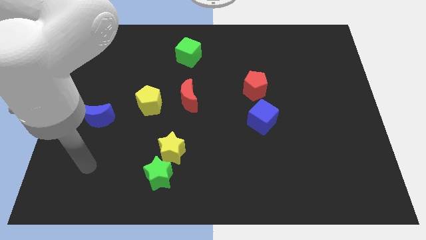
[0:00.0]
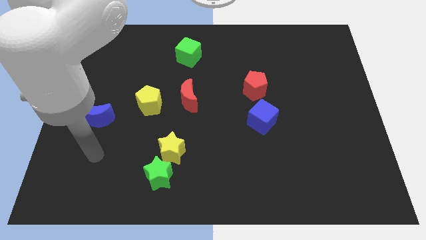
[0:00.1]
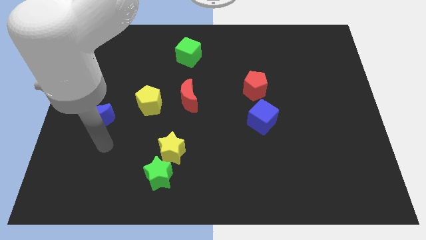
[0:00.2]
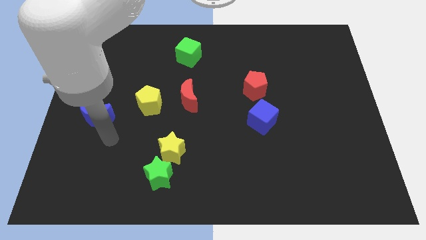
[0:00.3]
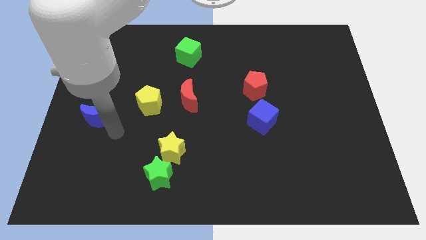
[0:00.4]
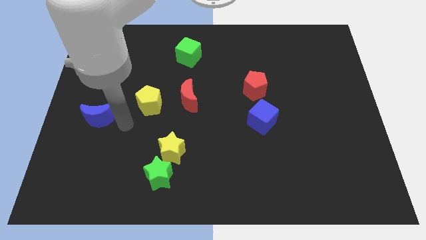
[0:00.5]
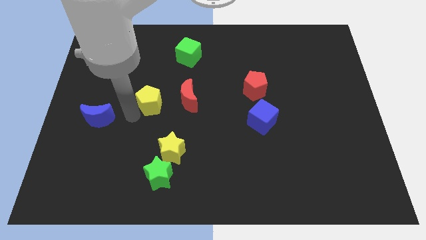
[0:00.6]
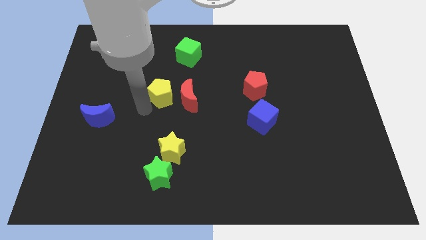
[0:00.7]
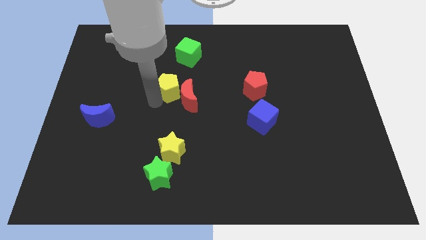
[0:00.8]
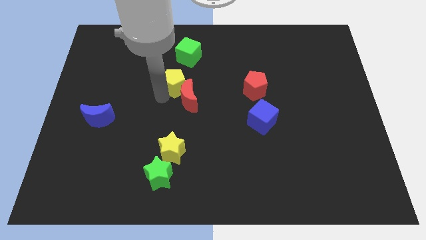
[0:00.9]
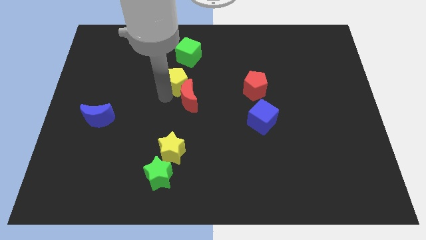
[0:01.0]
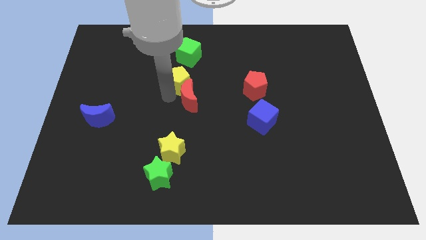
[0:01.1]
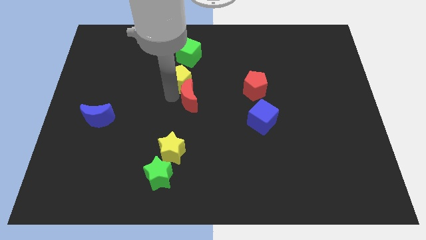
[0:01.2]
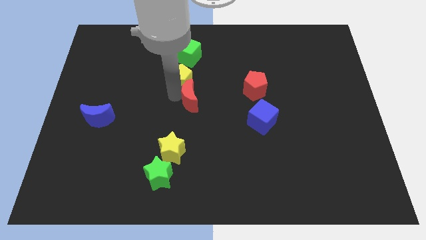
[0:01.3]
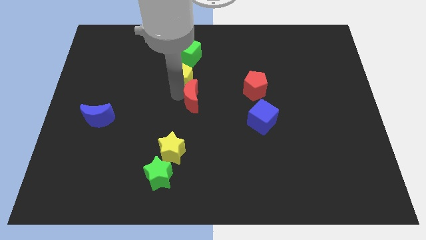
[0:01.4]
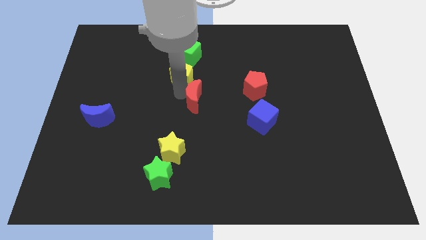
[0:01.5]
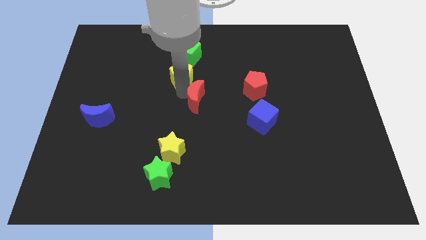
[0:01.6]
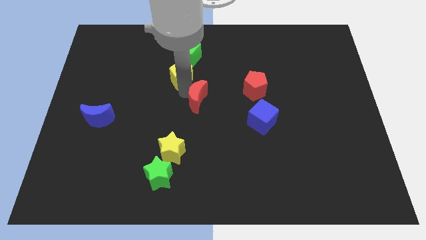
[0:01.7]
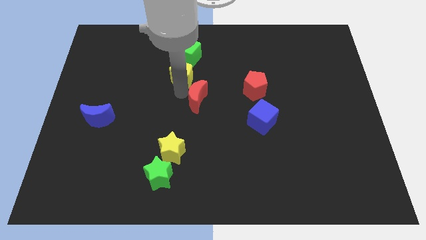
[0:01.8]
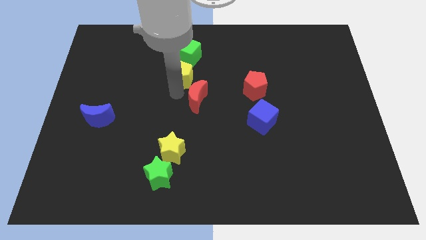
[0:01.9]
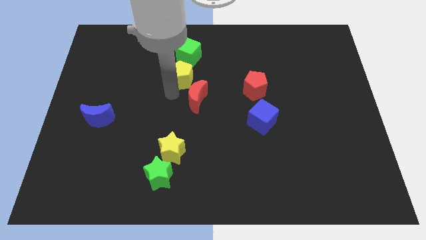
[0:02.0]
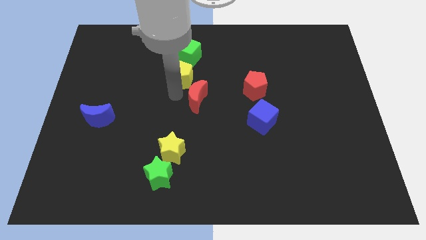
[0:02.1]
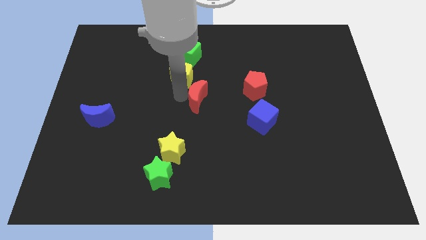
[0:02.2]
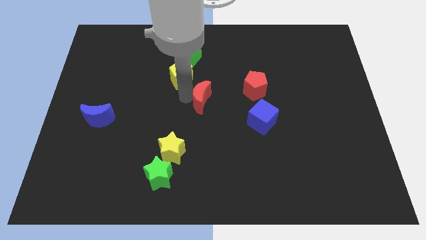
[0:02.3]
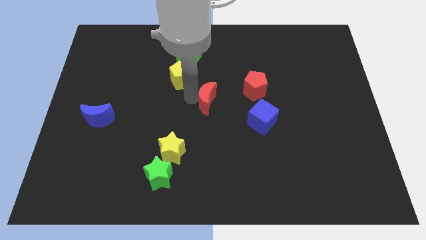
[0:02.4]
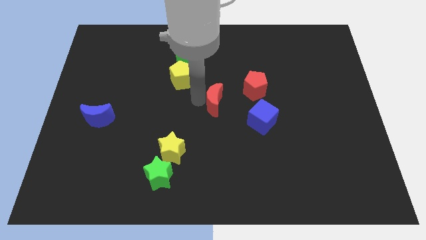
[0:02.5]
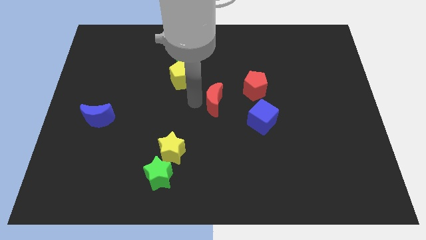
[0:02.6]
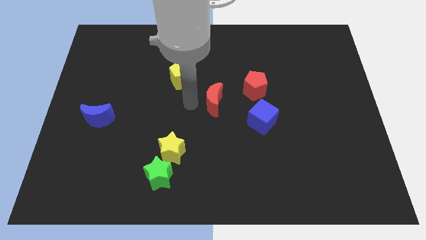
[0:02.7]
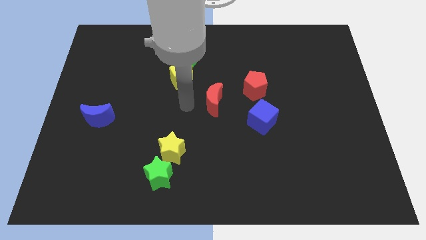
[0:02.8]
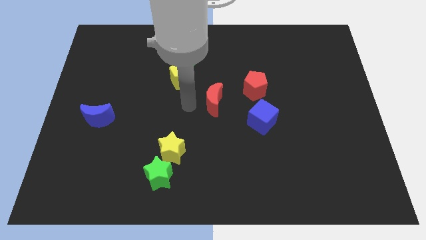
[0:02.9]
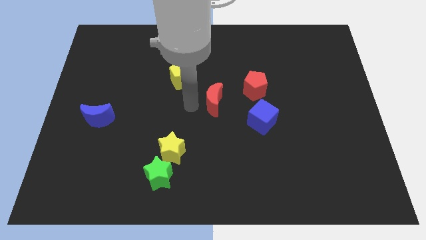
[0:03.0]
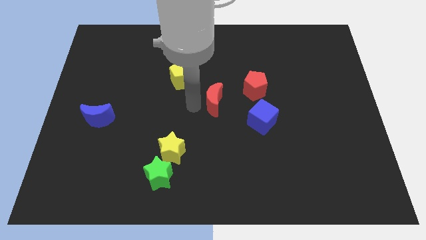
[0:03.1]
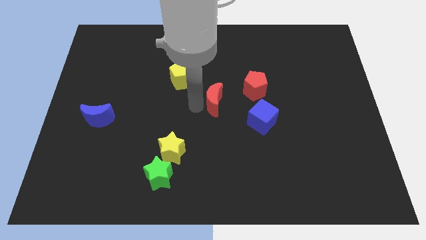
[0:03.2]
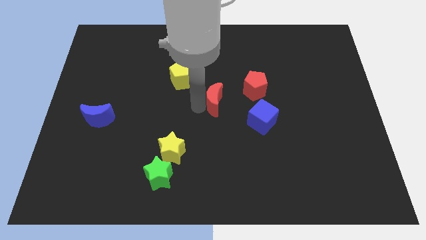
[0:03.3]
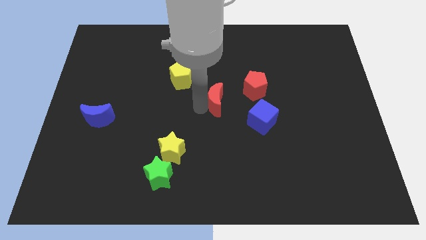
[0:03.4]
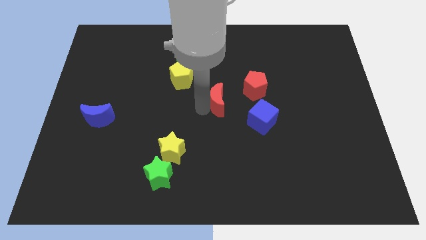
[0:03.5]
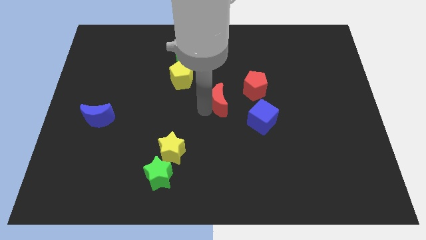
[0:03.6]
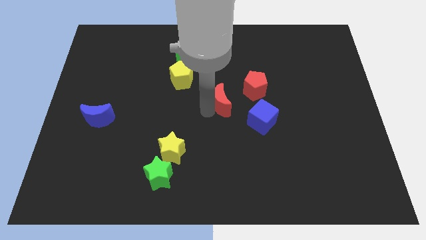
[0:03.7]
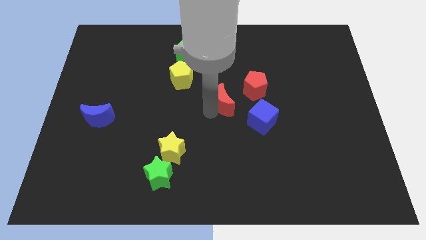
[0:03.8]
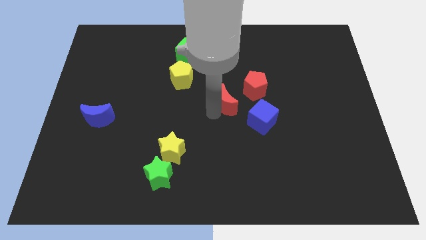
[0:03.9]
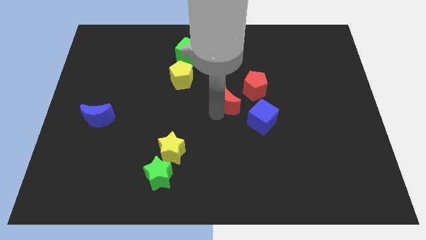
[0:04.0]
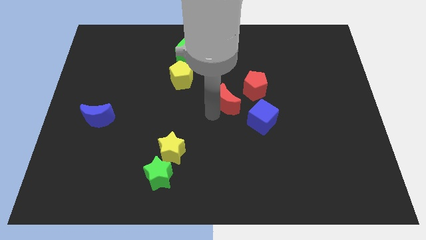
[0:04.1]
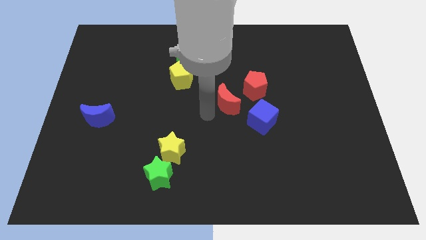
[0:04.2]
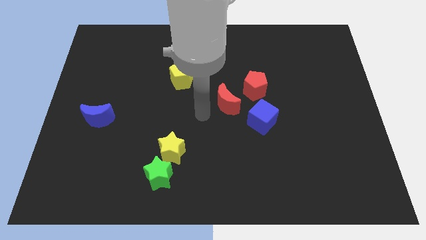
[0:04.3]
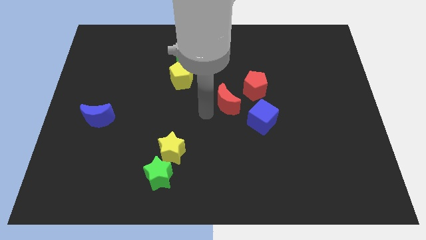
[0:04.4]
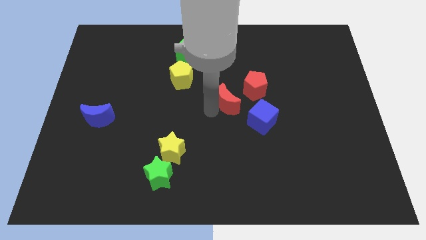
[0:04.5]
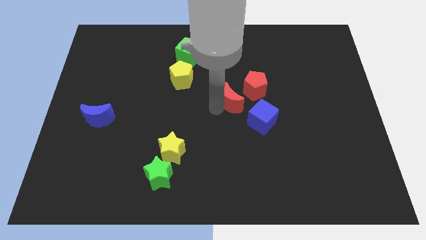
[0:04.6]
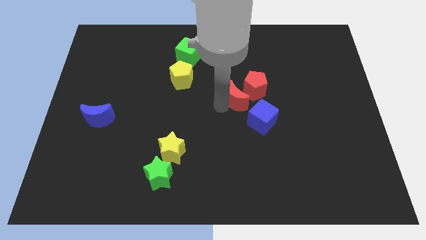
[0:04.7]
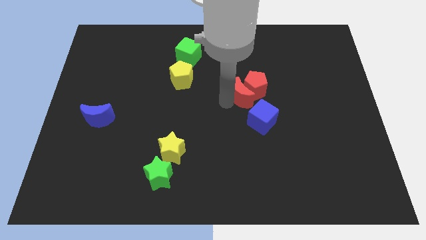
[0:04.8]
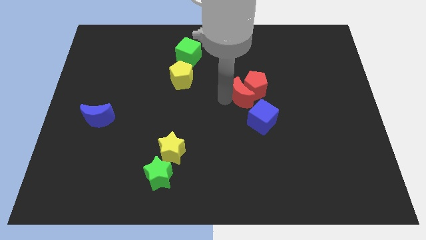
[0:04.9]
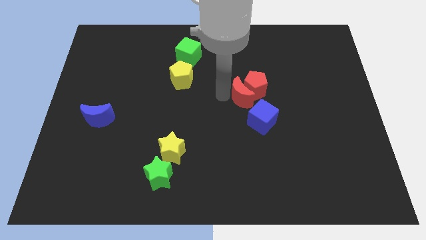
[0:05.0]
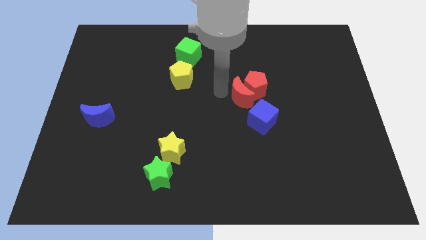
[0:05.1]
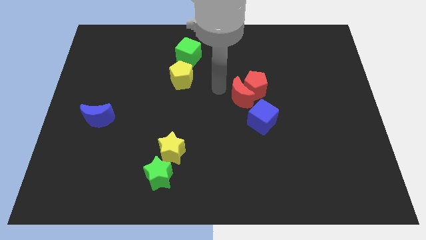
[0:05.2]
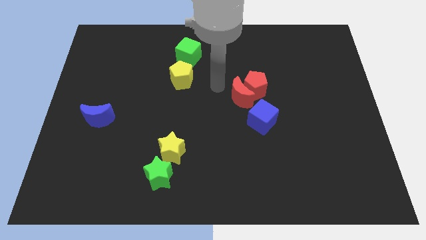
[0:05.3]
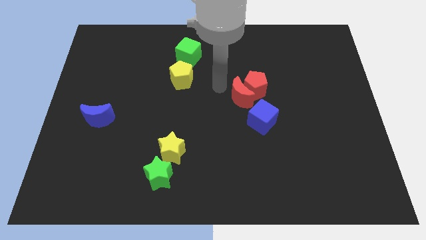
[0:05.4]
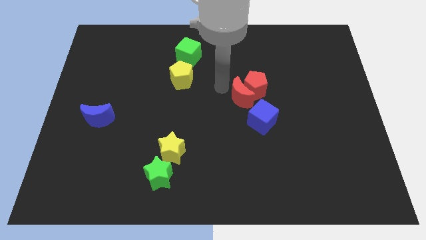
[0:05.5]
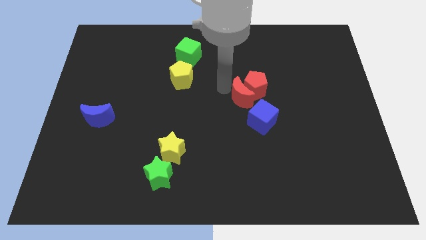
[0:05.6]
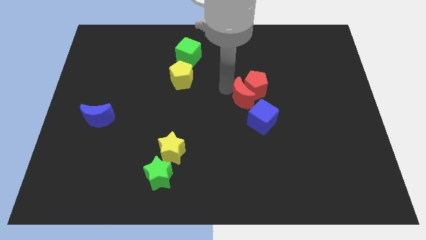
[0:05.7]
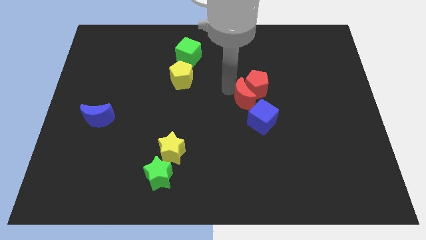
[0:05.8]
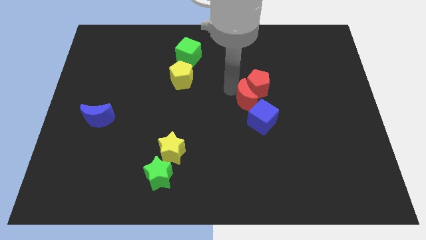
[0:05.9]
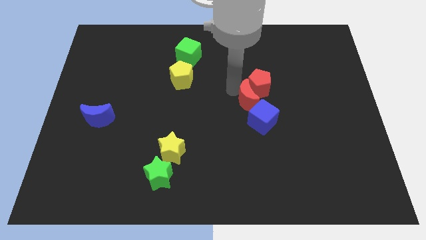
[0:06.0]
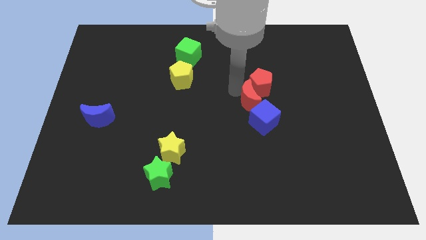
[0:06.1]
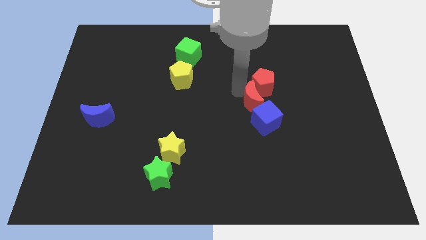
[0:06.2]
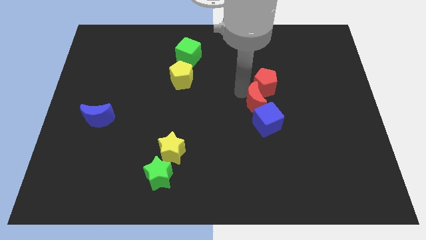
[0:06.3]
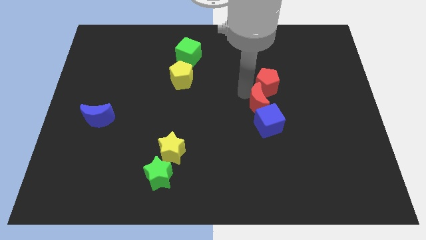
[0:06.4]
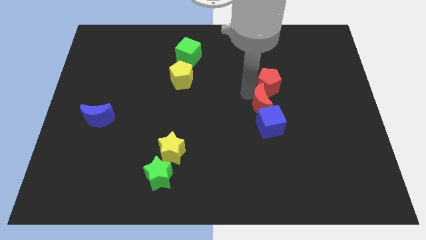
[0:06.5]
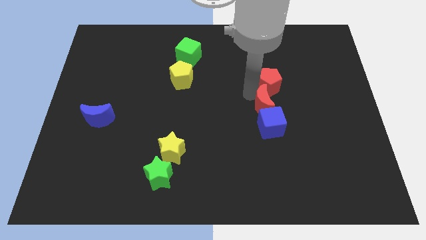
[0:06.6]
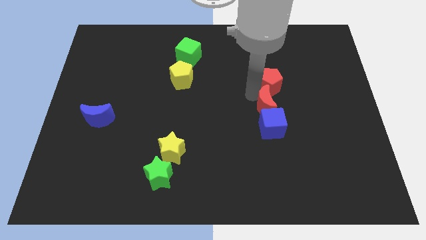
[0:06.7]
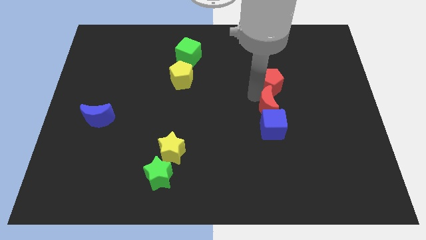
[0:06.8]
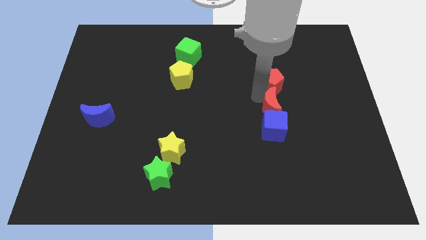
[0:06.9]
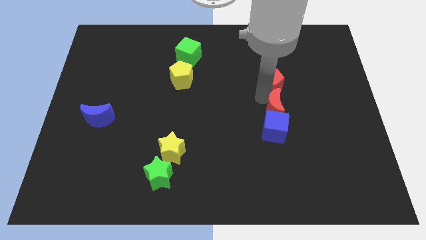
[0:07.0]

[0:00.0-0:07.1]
push the red moon right

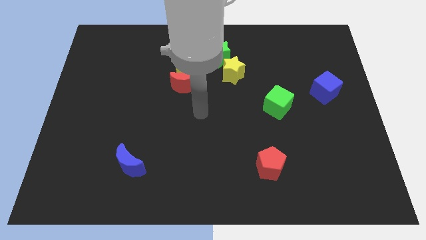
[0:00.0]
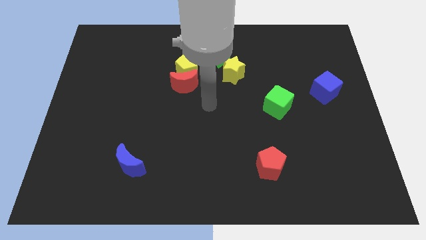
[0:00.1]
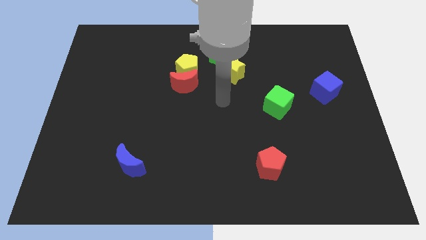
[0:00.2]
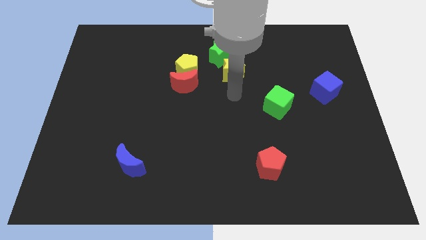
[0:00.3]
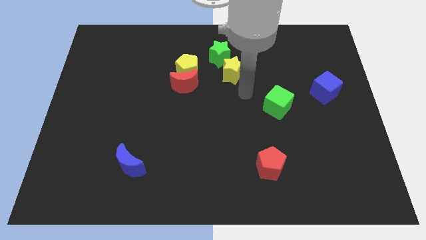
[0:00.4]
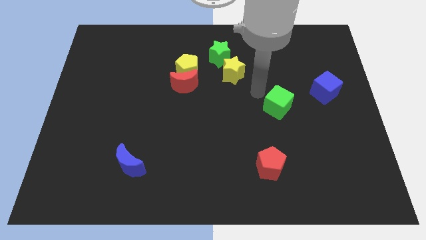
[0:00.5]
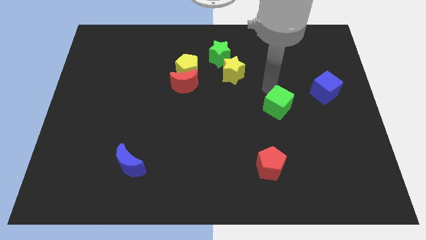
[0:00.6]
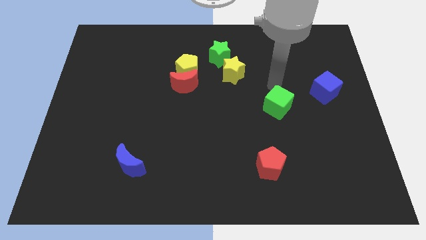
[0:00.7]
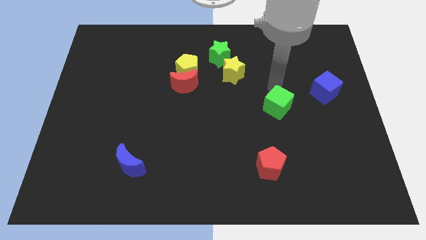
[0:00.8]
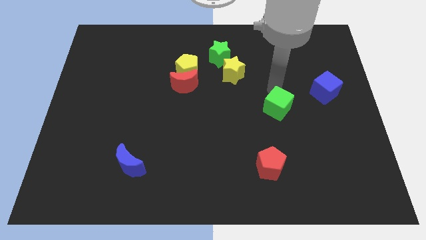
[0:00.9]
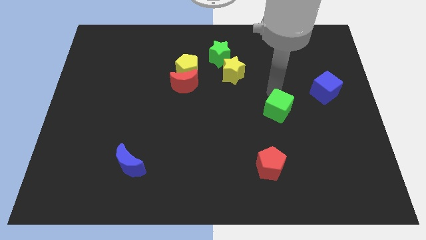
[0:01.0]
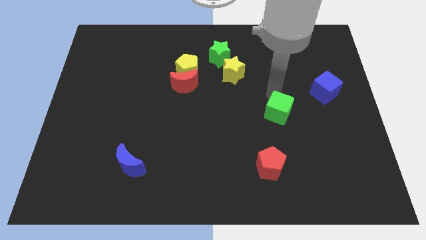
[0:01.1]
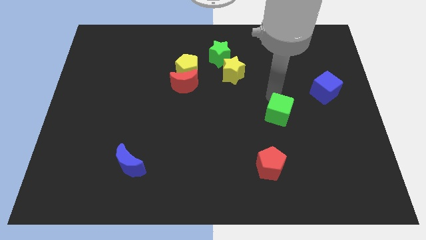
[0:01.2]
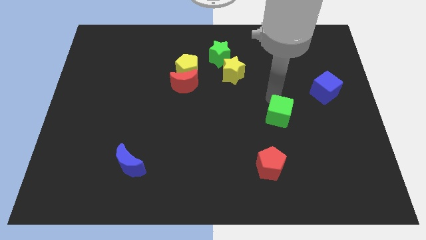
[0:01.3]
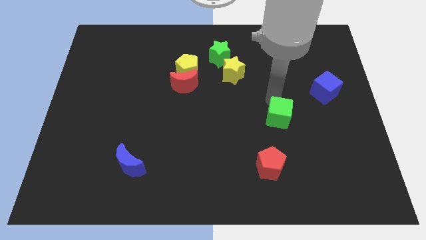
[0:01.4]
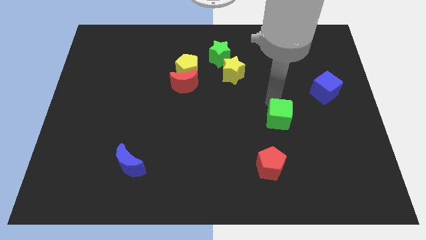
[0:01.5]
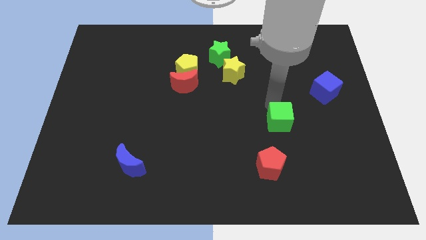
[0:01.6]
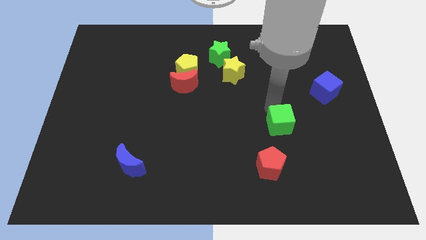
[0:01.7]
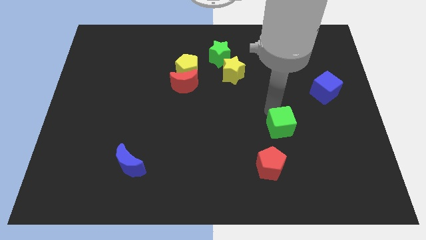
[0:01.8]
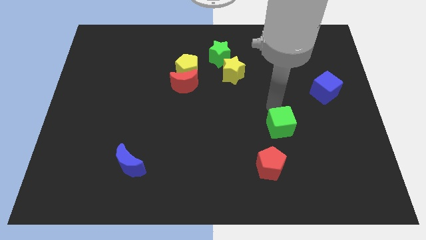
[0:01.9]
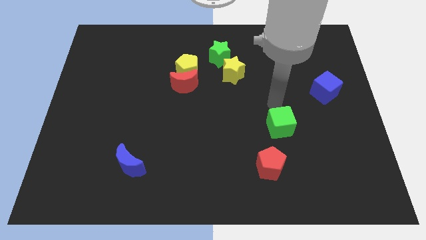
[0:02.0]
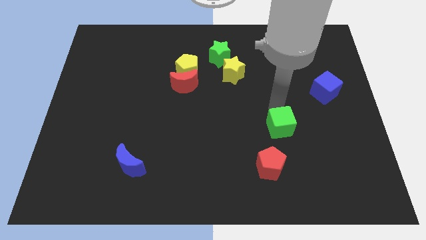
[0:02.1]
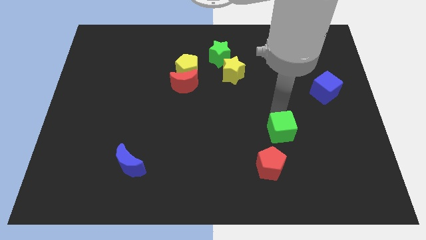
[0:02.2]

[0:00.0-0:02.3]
slide the green cube a little downwards
